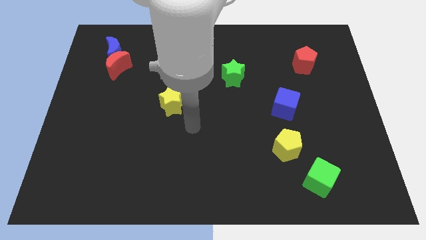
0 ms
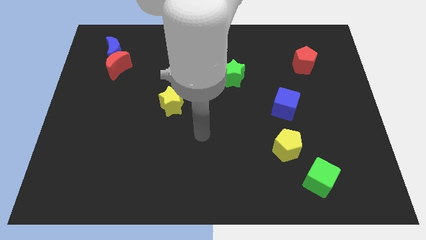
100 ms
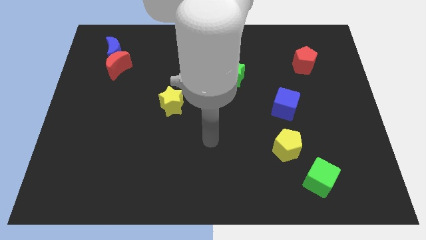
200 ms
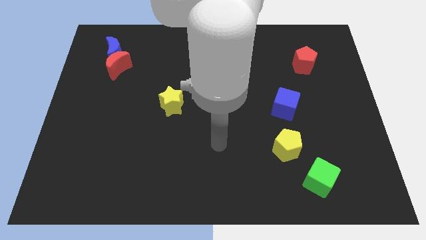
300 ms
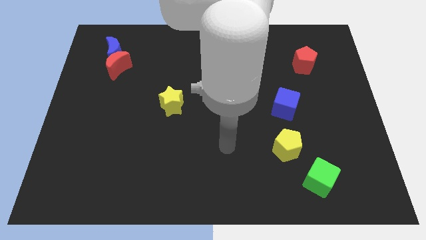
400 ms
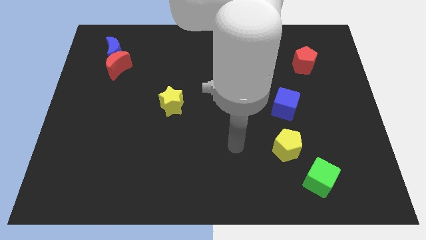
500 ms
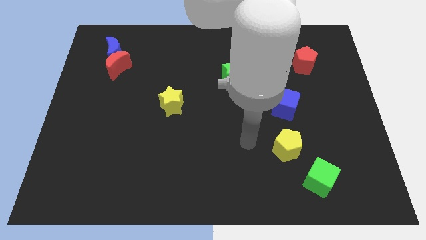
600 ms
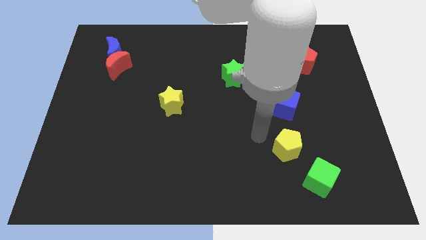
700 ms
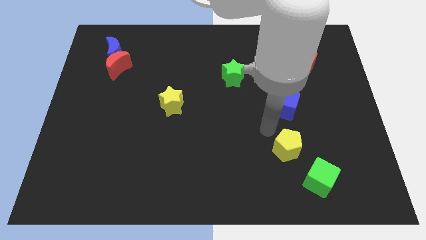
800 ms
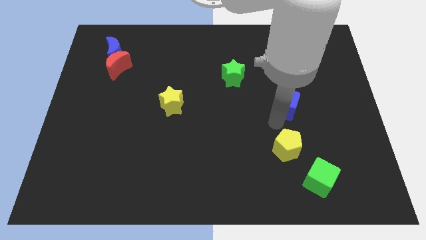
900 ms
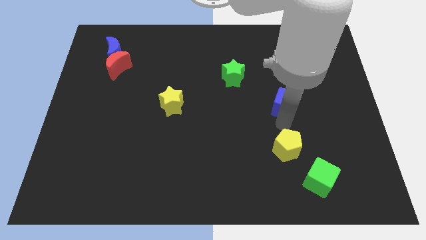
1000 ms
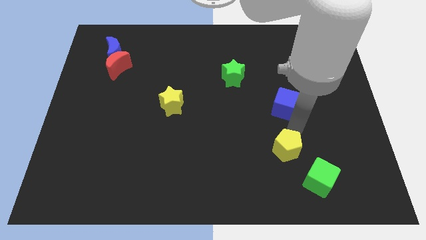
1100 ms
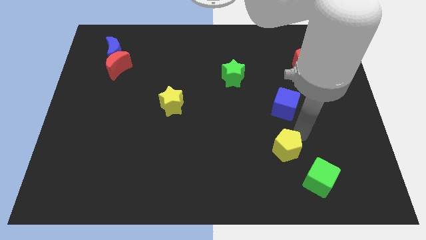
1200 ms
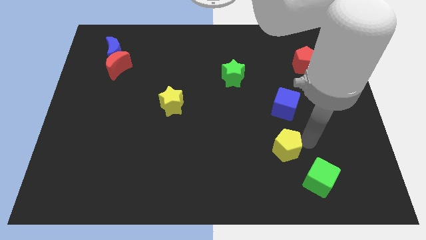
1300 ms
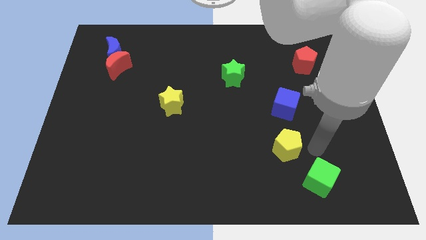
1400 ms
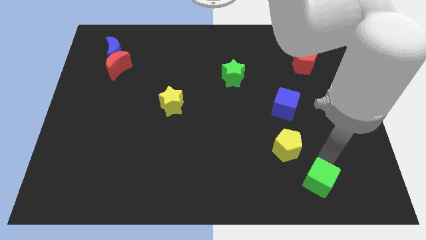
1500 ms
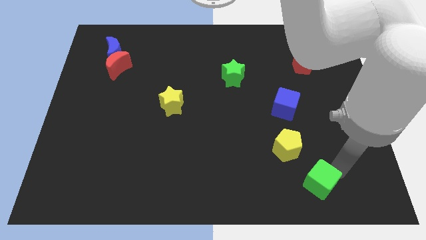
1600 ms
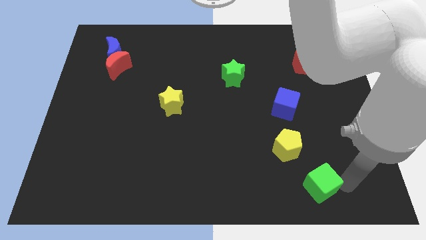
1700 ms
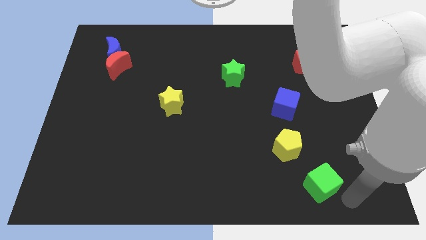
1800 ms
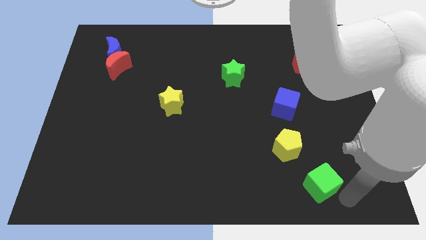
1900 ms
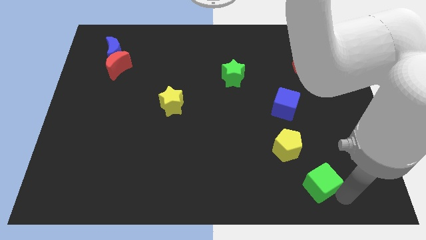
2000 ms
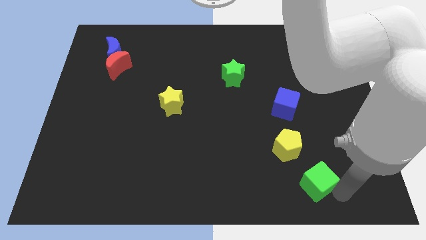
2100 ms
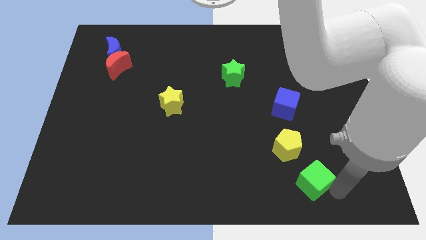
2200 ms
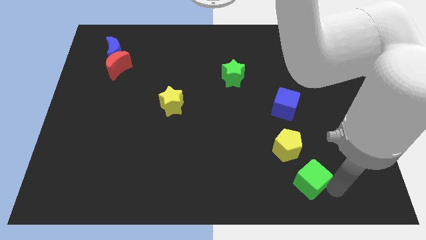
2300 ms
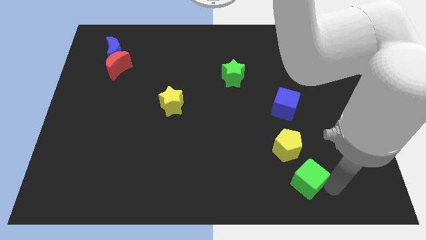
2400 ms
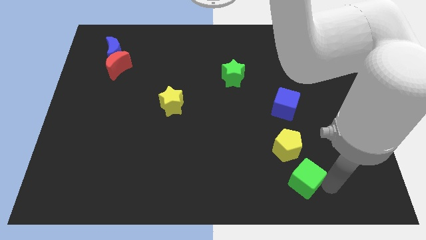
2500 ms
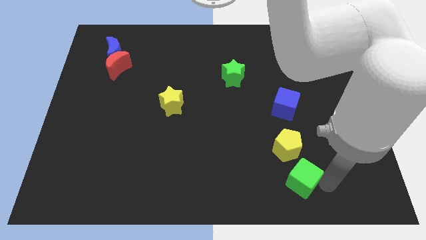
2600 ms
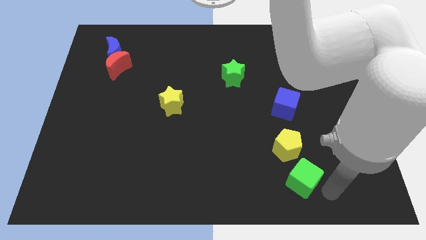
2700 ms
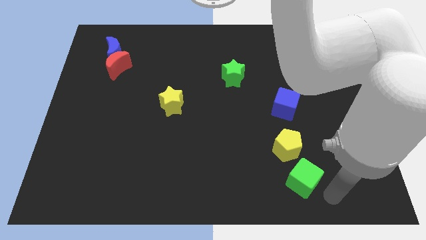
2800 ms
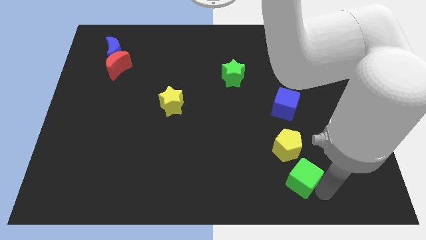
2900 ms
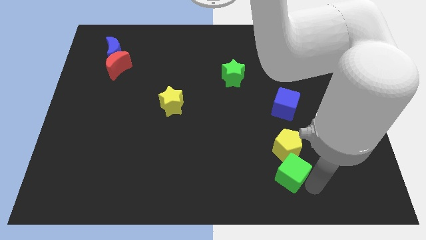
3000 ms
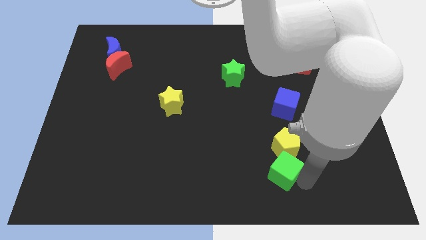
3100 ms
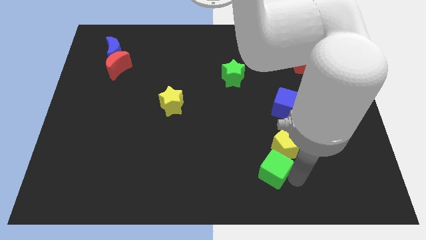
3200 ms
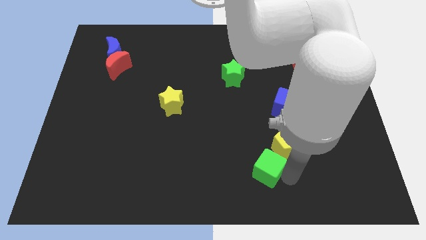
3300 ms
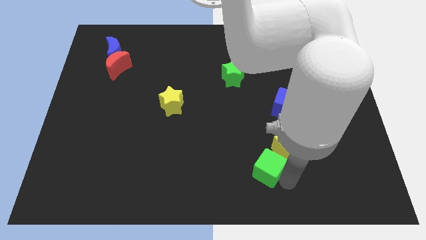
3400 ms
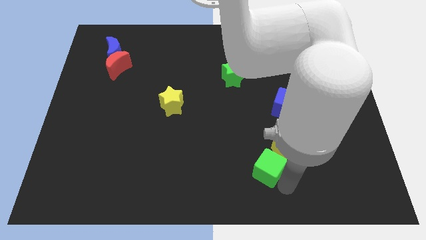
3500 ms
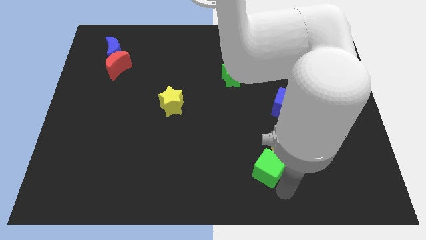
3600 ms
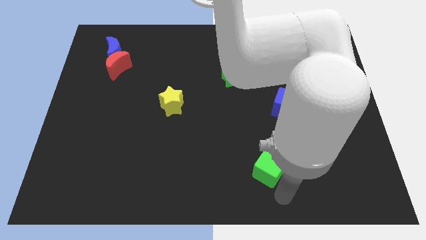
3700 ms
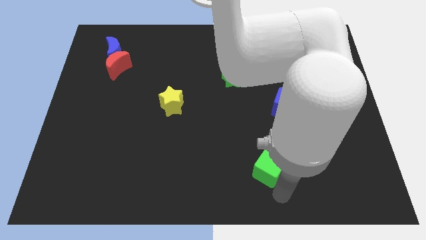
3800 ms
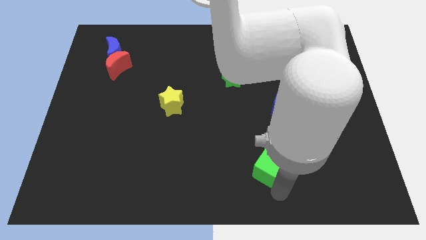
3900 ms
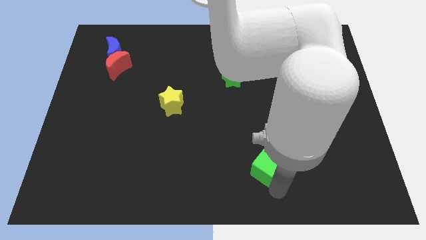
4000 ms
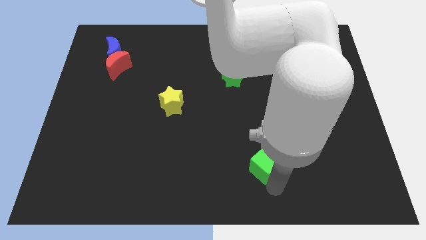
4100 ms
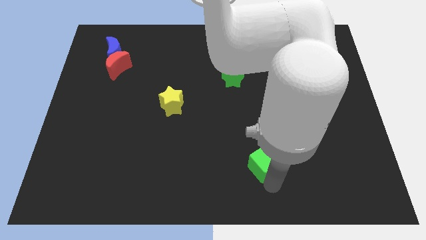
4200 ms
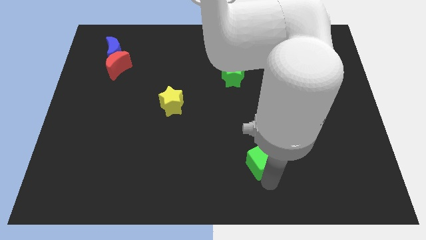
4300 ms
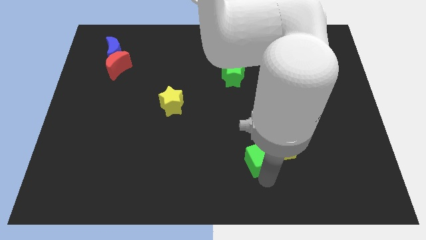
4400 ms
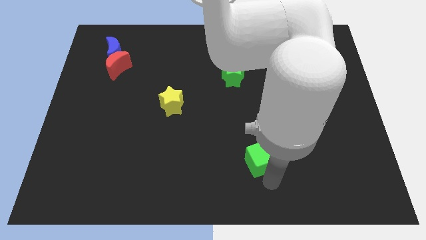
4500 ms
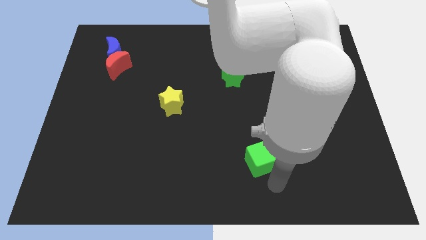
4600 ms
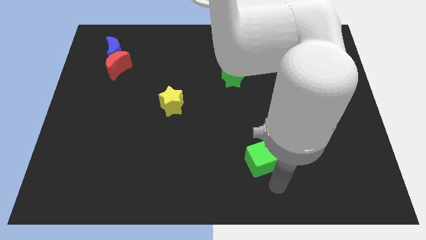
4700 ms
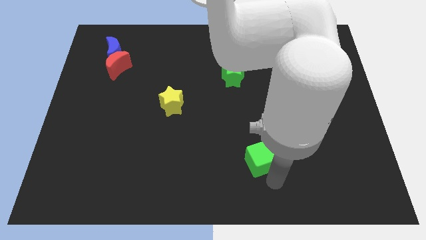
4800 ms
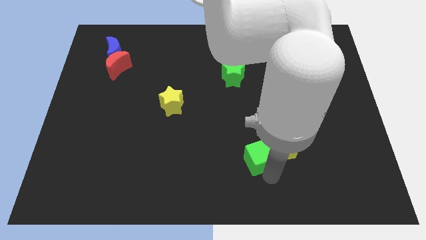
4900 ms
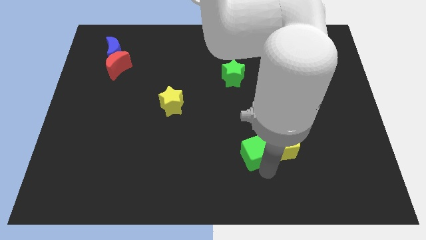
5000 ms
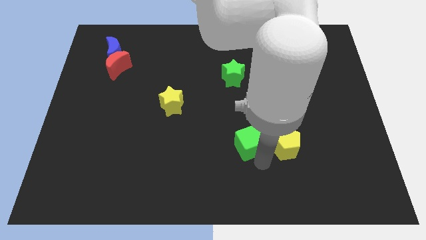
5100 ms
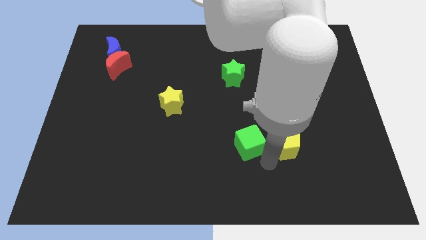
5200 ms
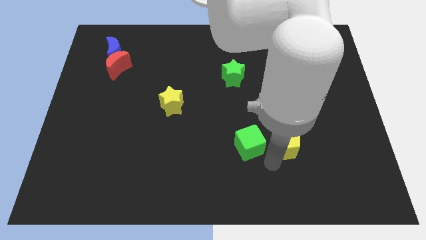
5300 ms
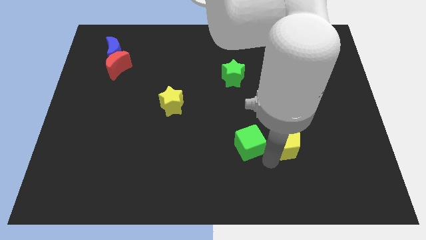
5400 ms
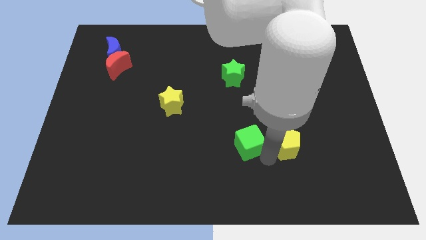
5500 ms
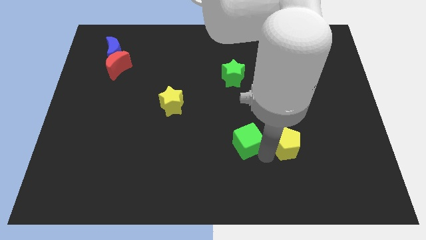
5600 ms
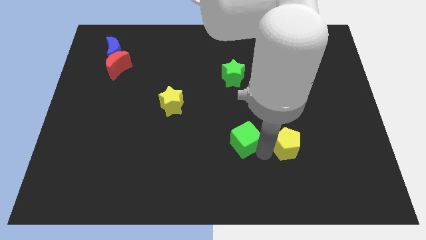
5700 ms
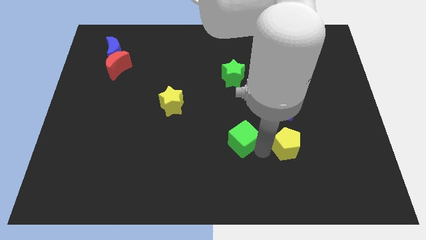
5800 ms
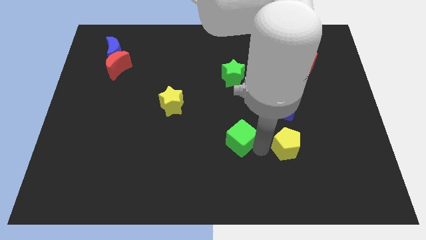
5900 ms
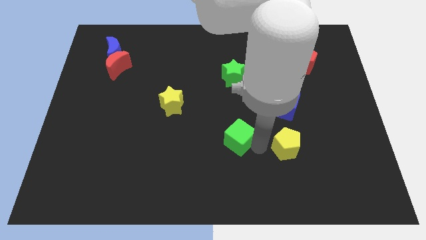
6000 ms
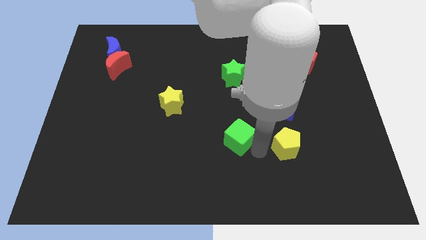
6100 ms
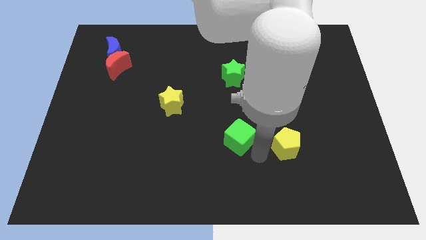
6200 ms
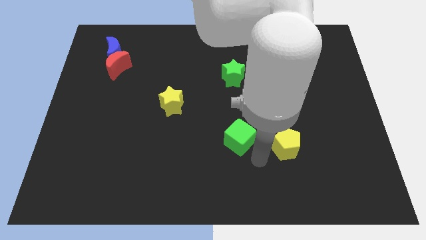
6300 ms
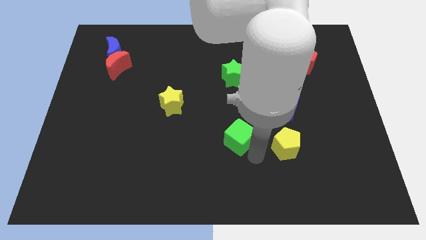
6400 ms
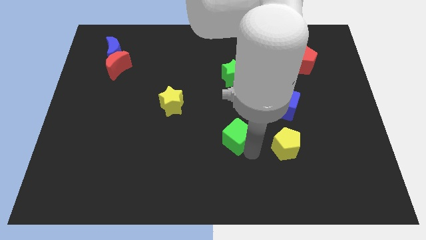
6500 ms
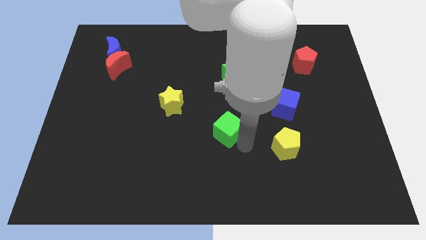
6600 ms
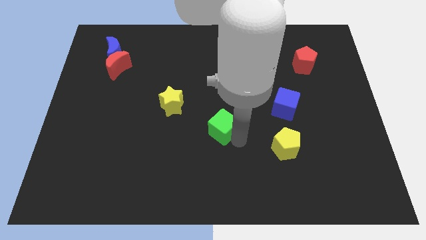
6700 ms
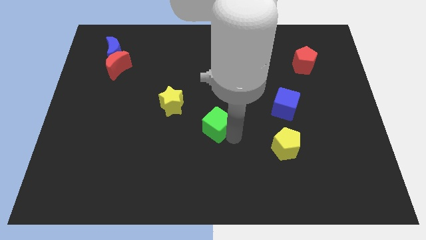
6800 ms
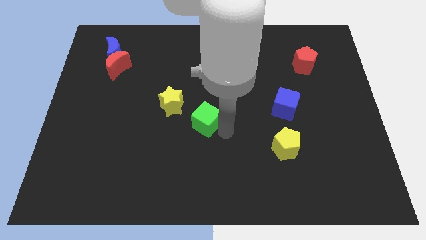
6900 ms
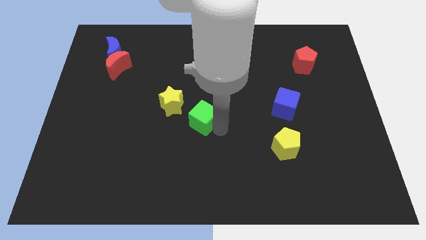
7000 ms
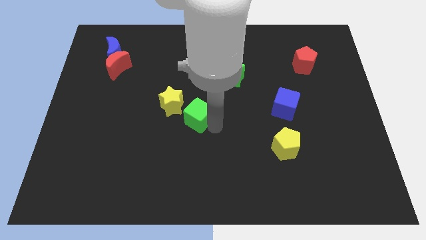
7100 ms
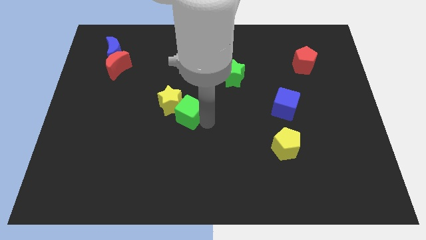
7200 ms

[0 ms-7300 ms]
push the green cube to the yellow star
